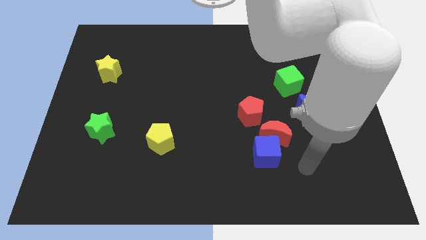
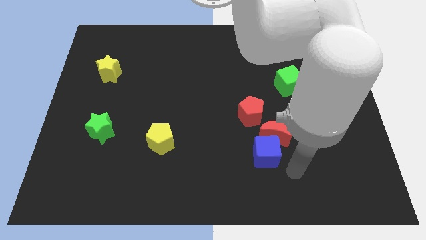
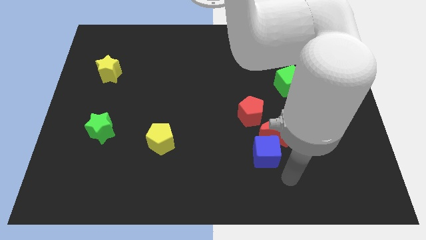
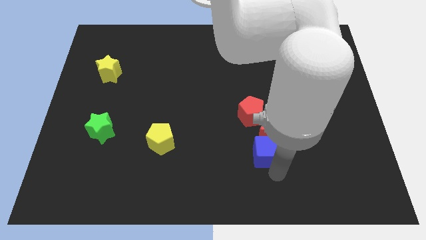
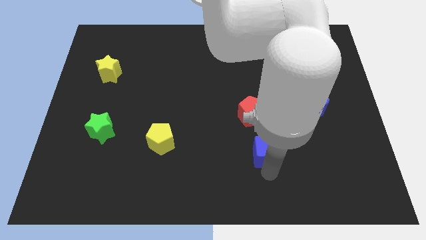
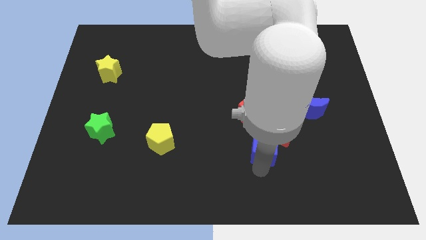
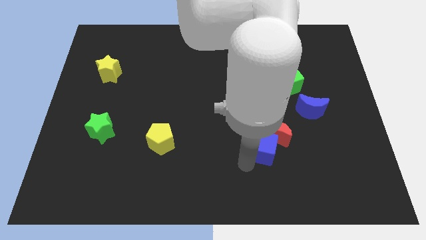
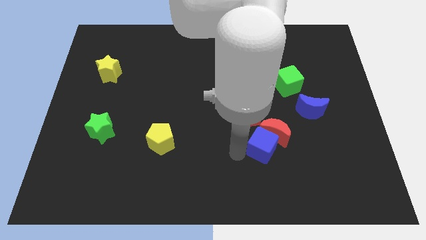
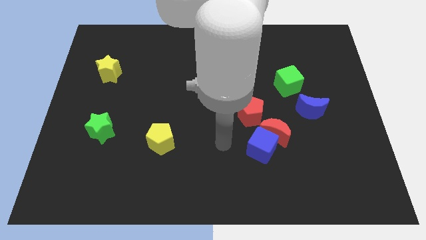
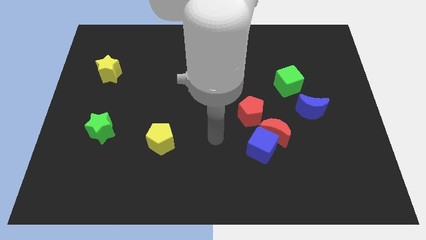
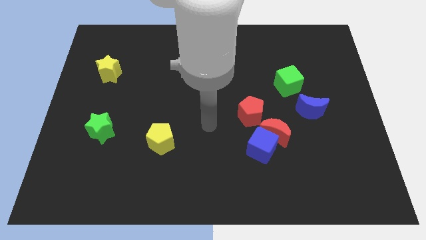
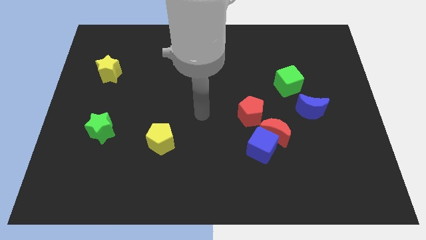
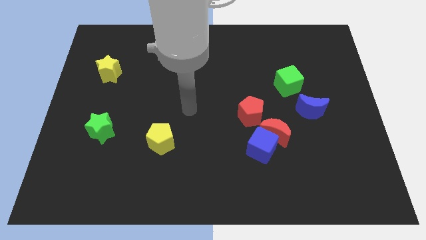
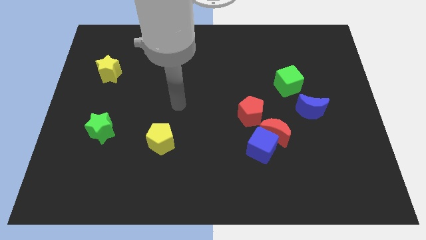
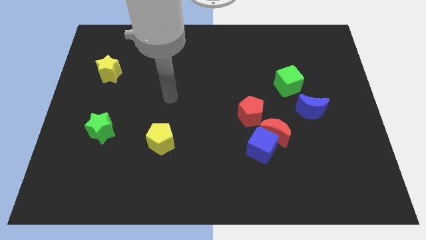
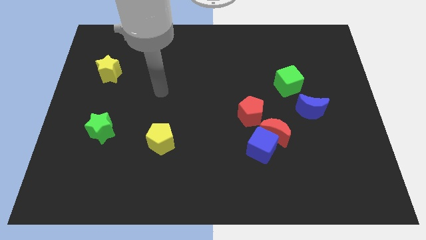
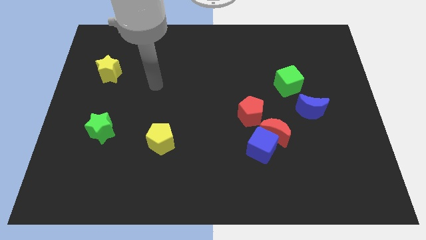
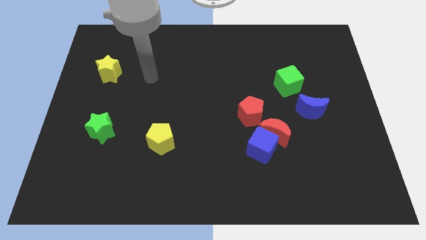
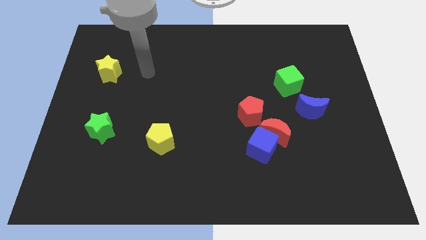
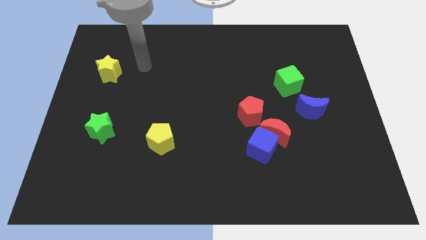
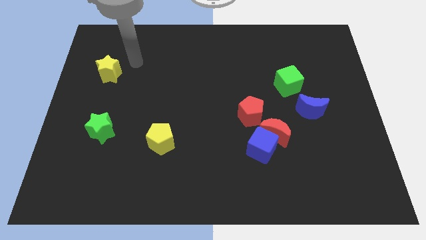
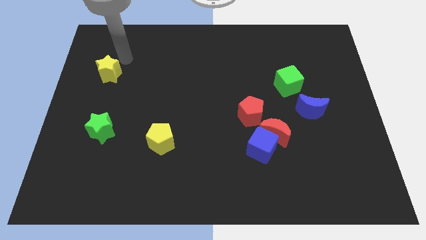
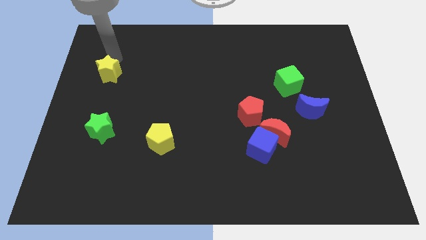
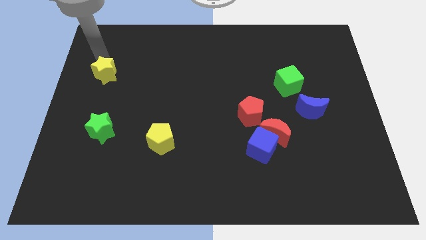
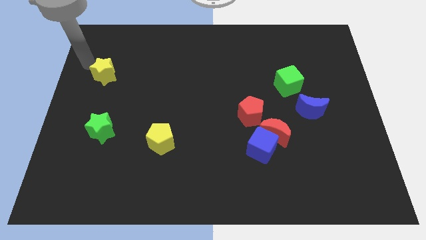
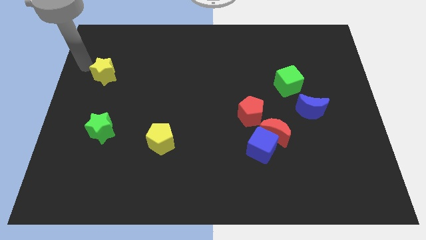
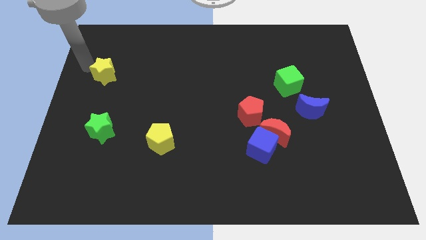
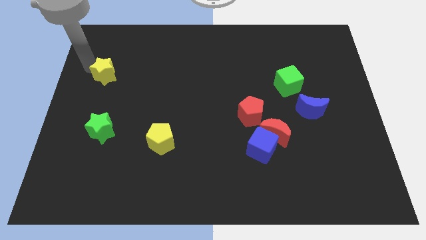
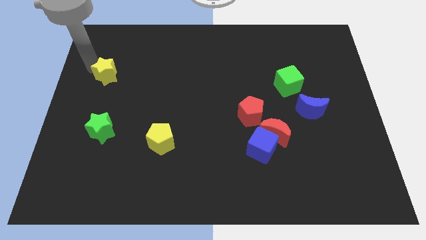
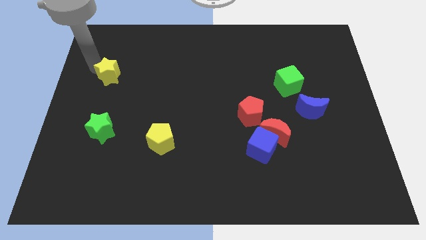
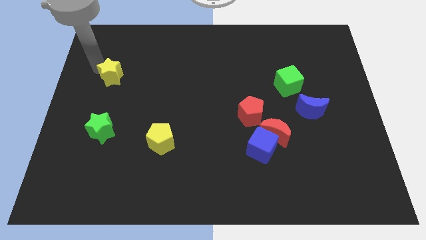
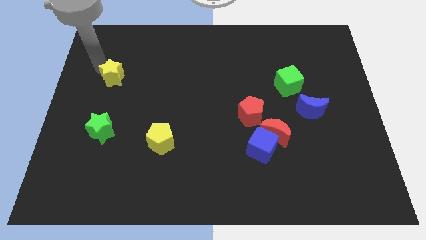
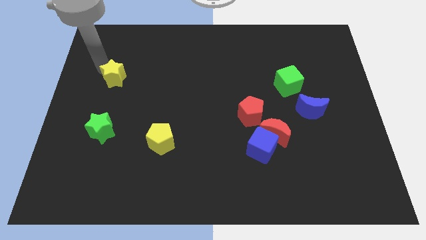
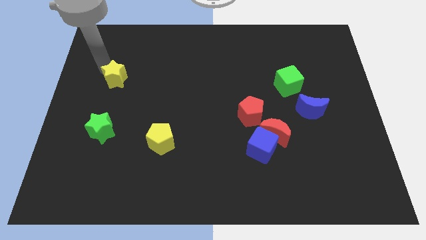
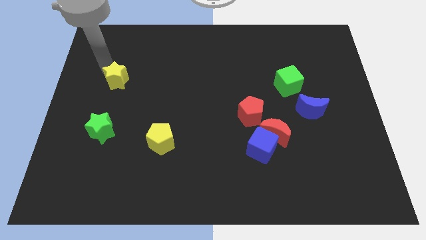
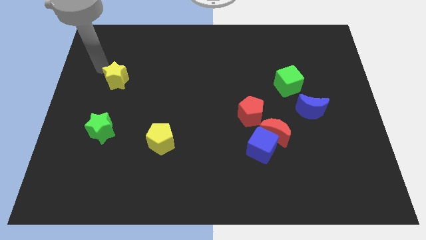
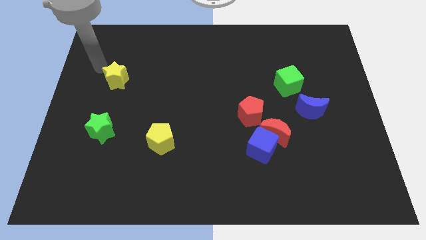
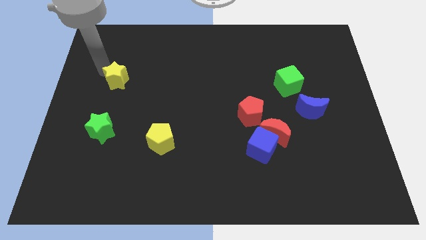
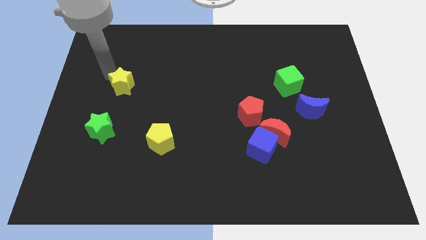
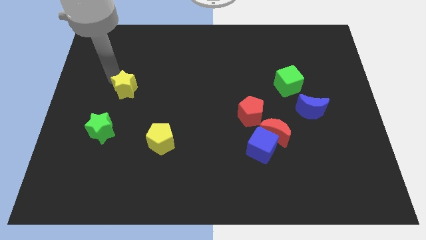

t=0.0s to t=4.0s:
slide the yellow star down and then to the right somewhat

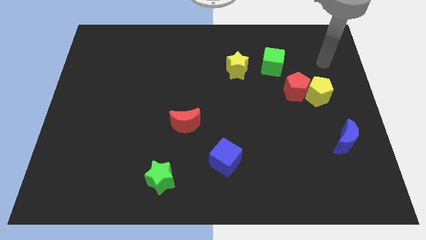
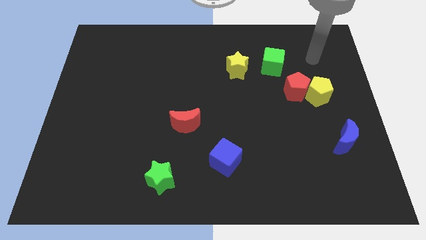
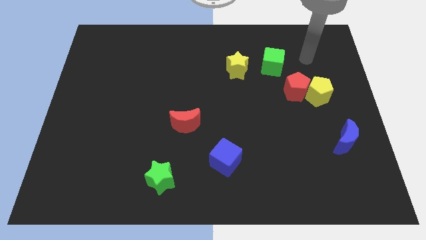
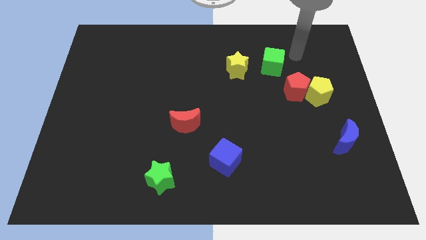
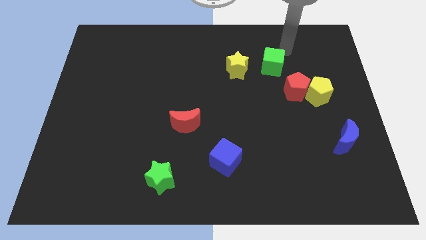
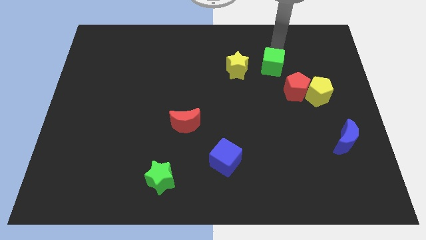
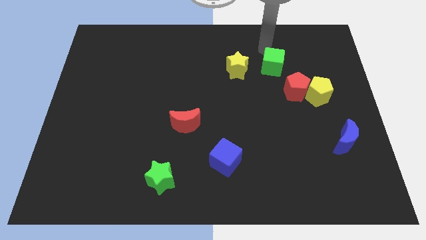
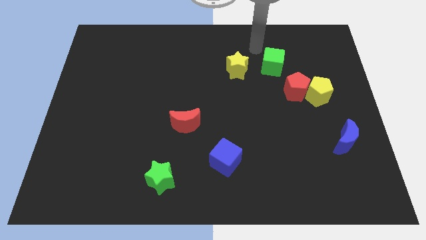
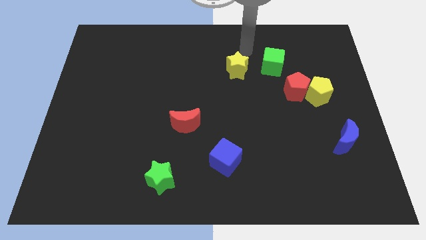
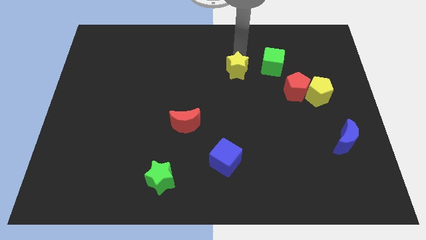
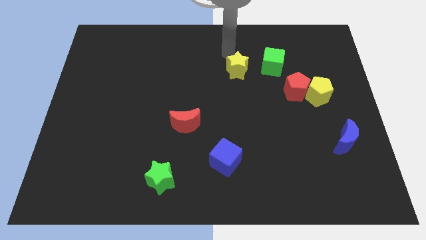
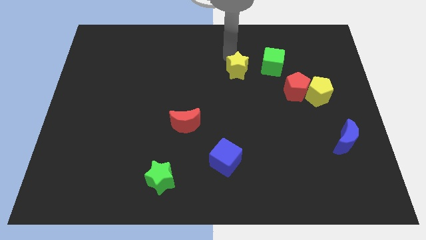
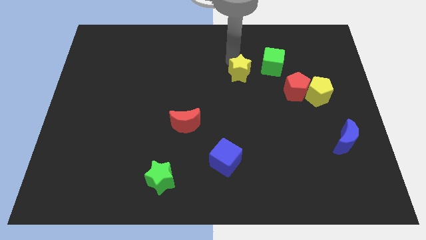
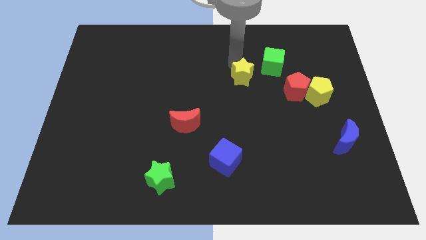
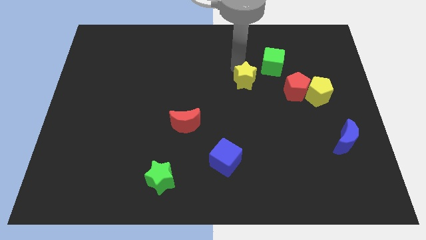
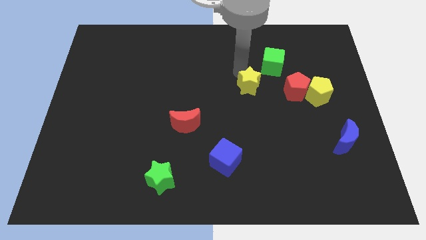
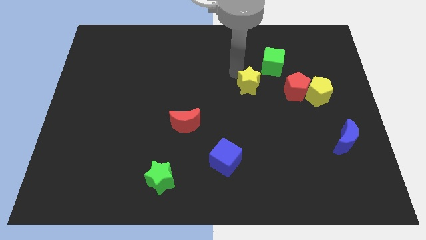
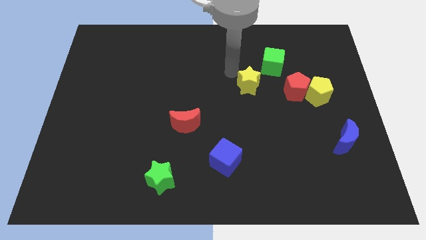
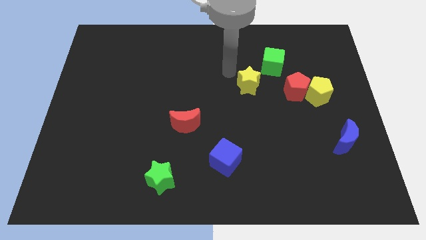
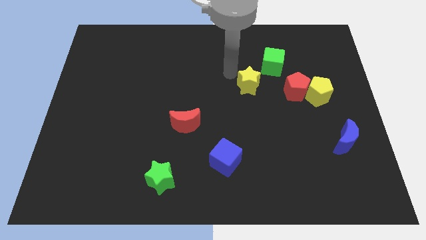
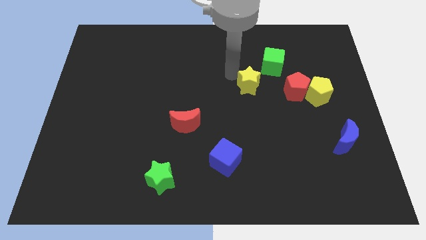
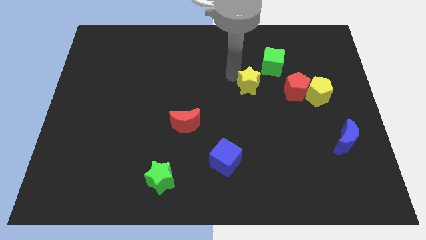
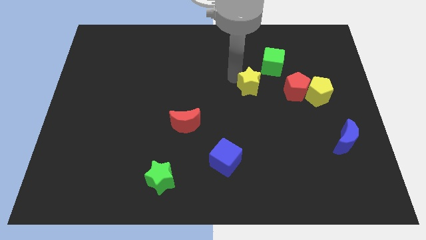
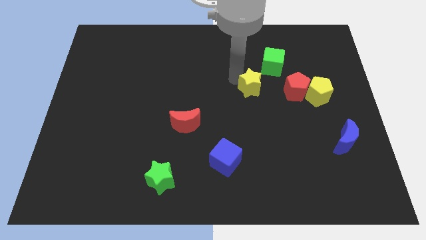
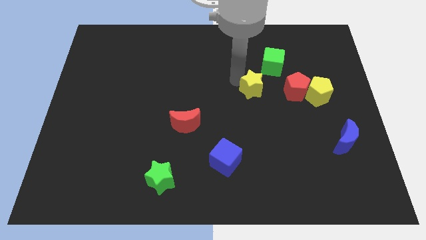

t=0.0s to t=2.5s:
move the yellow star a little downwards and then right

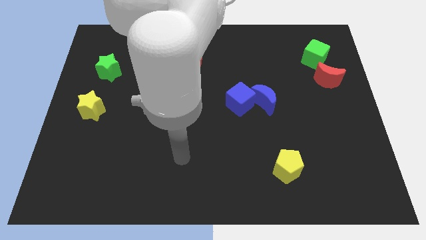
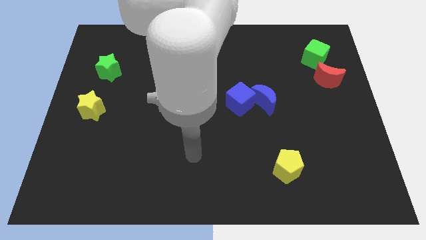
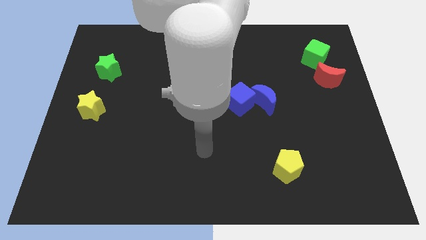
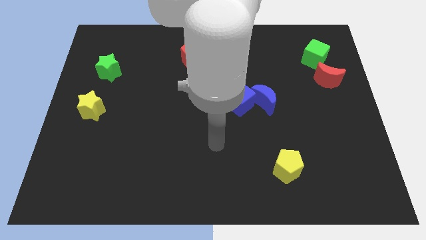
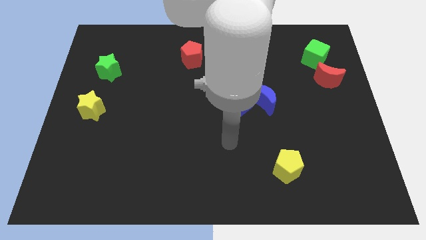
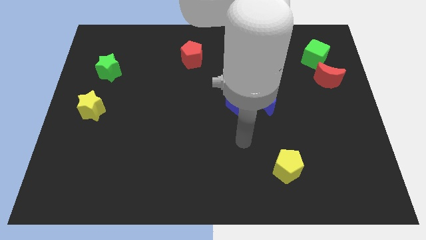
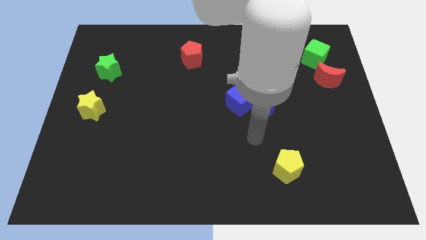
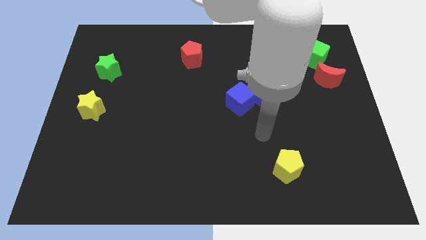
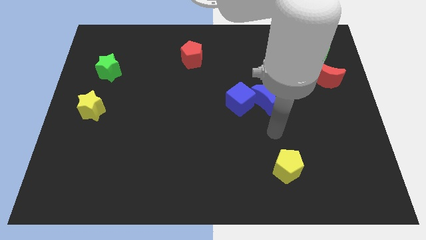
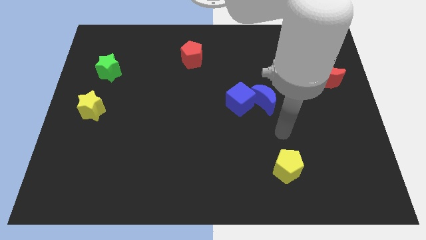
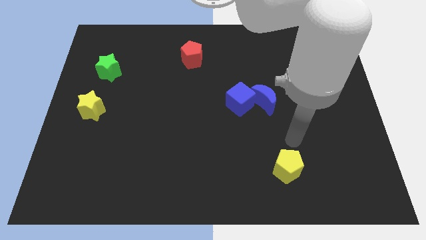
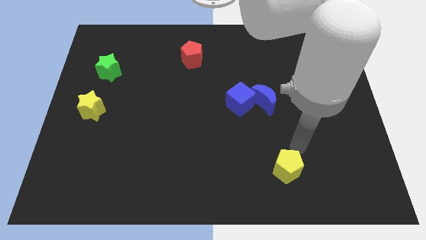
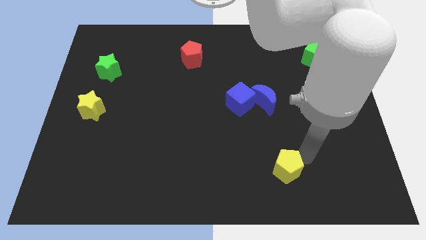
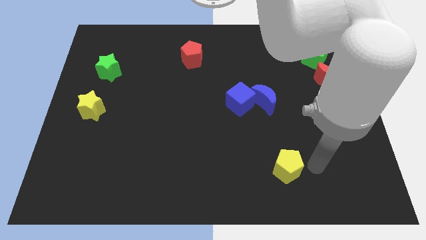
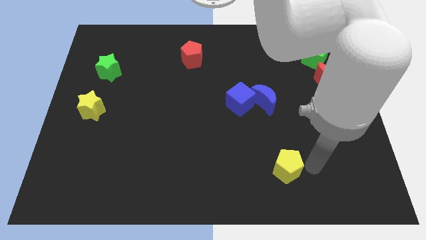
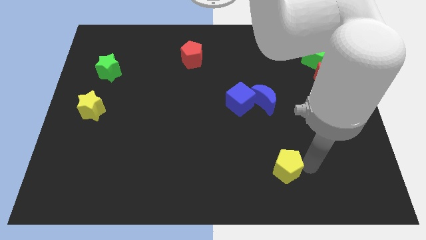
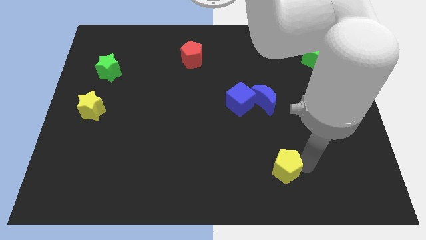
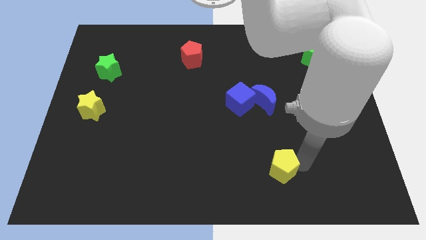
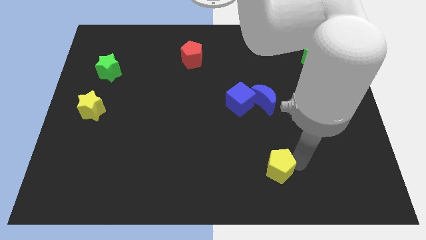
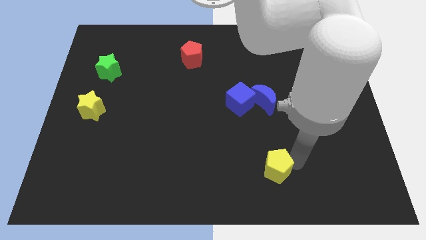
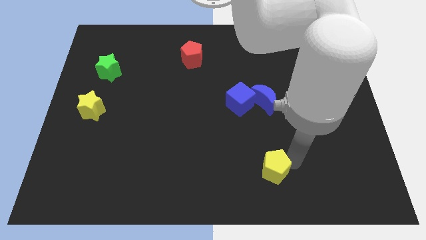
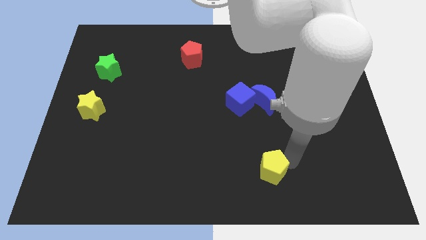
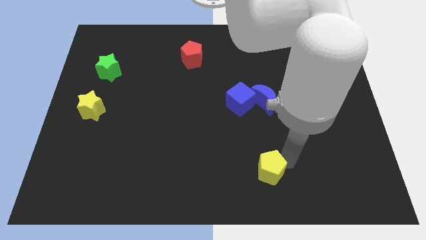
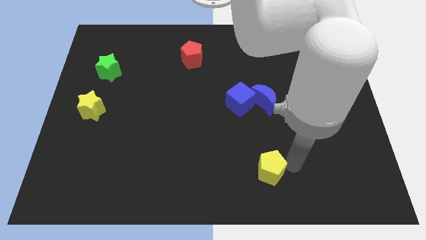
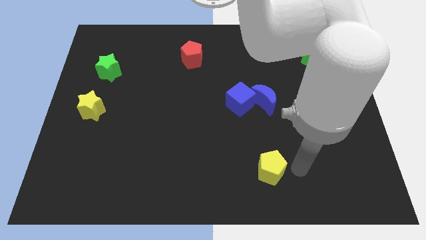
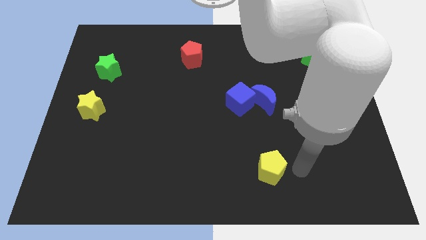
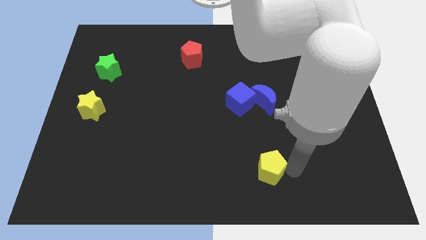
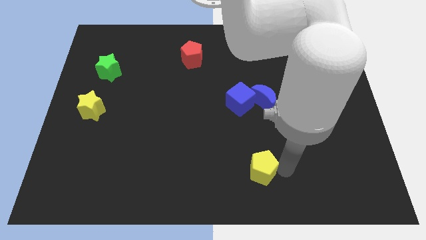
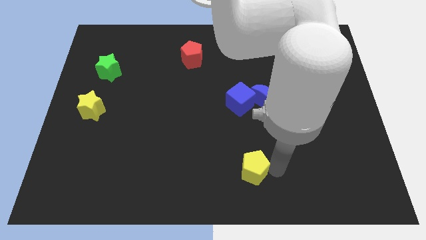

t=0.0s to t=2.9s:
slightly move the yellow pentagon left
